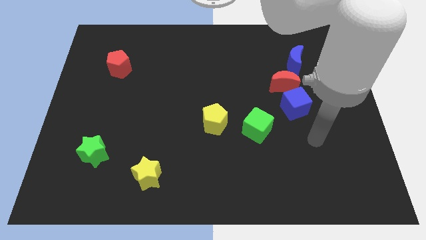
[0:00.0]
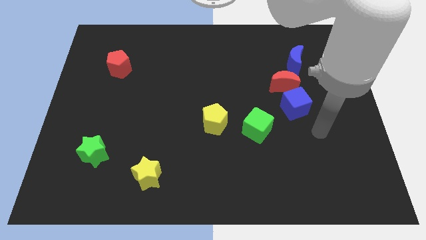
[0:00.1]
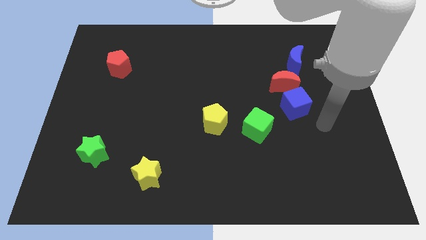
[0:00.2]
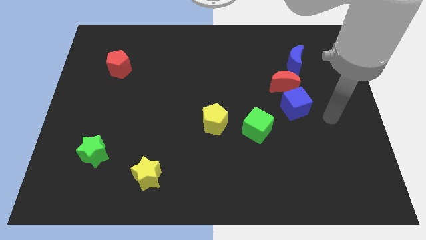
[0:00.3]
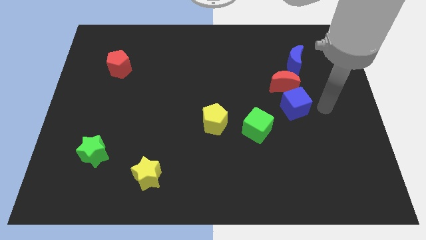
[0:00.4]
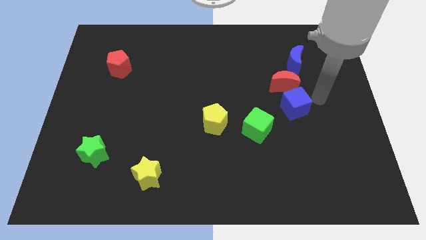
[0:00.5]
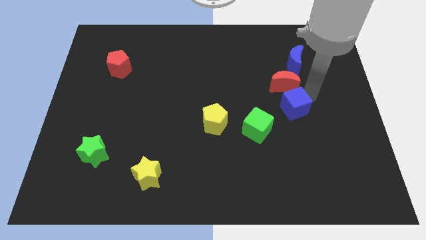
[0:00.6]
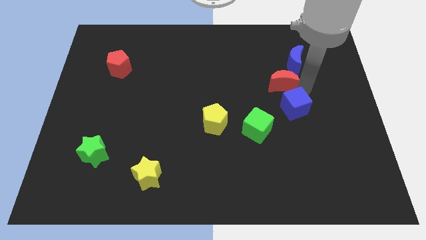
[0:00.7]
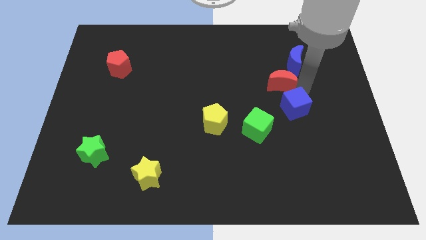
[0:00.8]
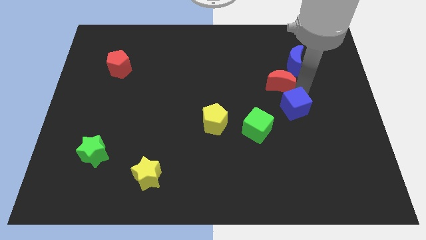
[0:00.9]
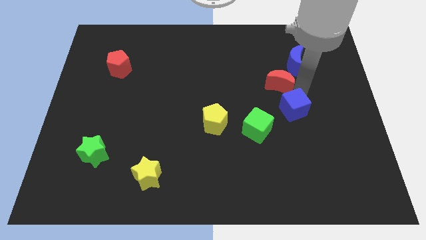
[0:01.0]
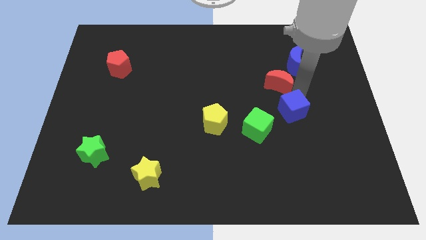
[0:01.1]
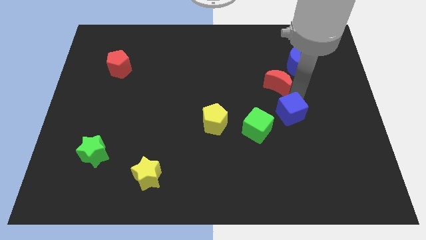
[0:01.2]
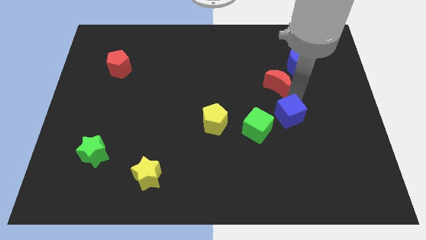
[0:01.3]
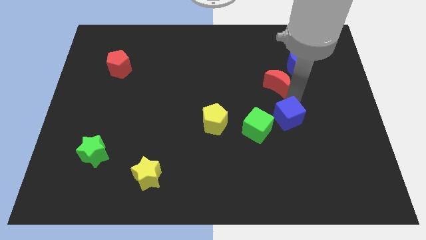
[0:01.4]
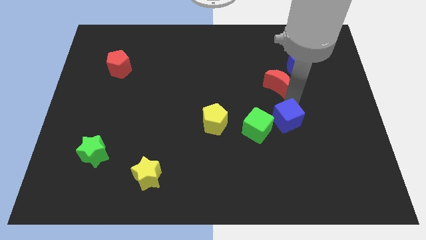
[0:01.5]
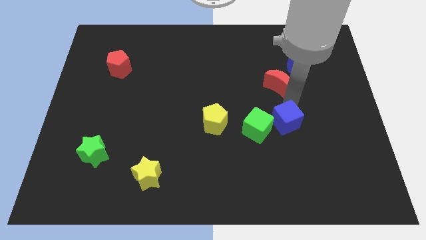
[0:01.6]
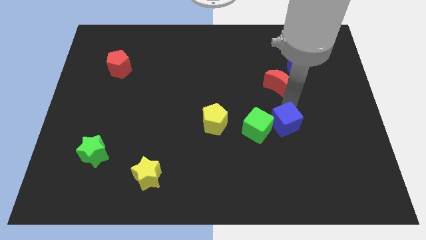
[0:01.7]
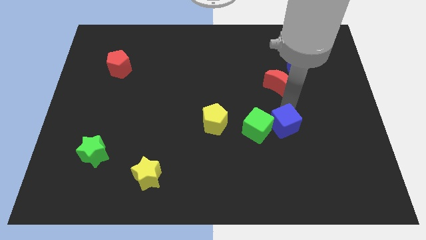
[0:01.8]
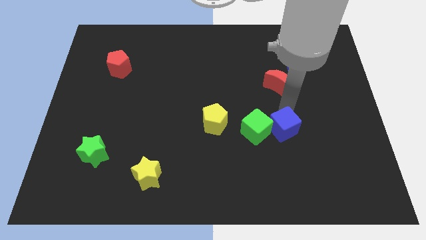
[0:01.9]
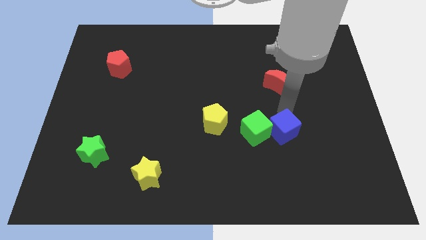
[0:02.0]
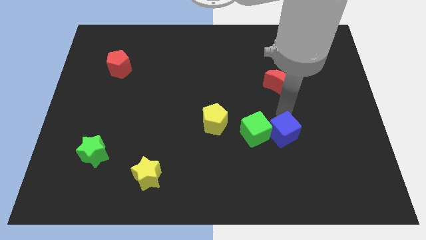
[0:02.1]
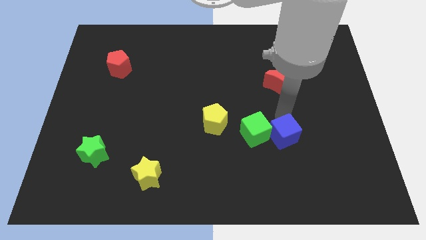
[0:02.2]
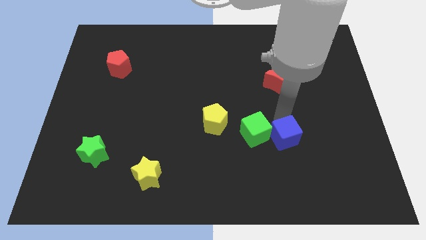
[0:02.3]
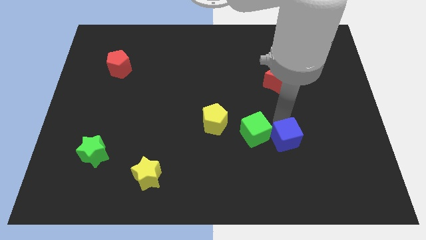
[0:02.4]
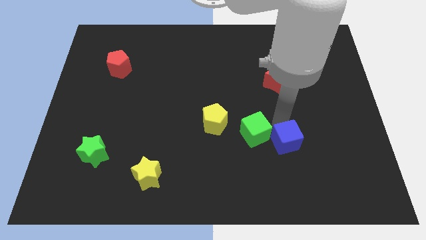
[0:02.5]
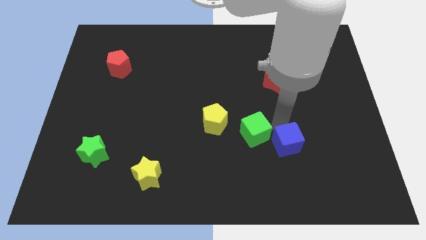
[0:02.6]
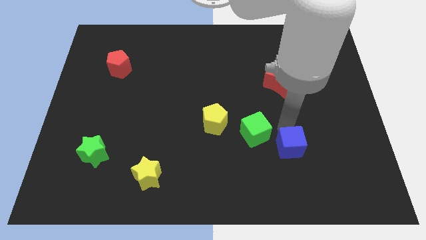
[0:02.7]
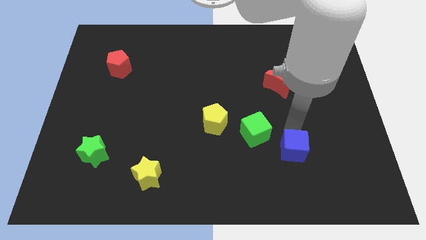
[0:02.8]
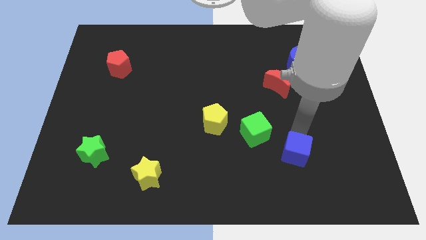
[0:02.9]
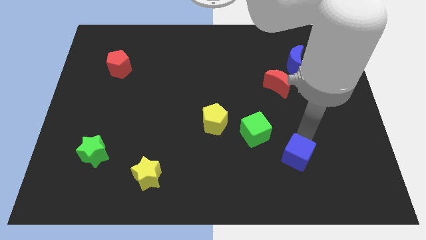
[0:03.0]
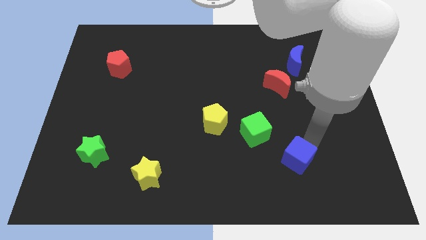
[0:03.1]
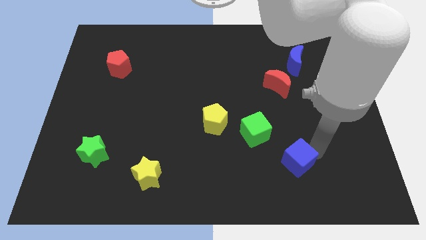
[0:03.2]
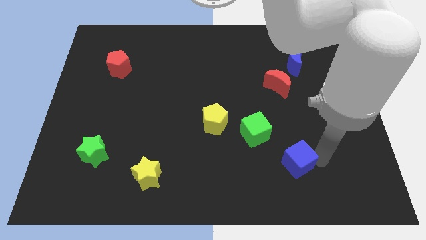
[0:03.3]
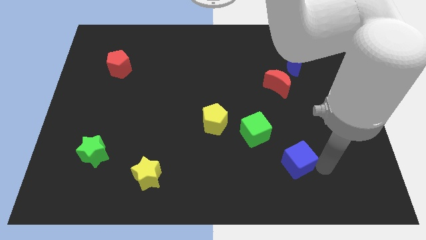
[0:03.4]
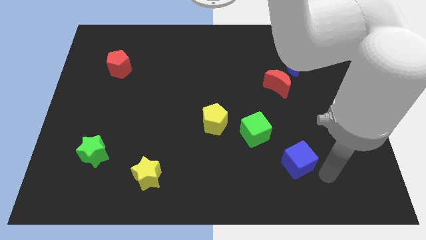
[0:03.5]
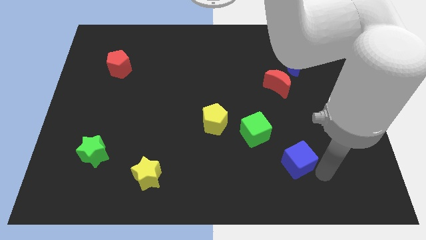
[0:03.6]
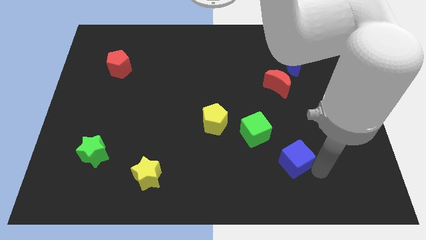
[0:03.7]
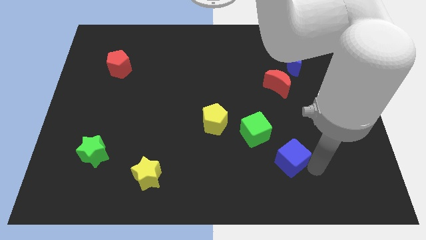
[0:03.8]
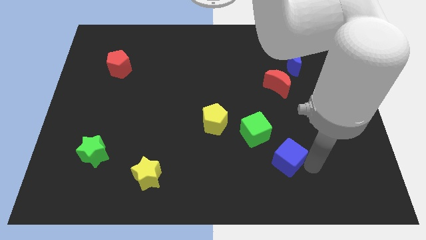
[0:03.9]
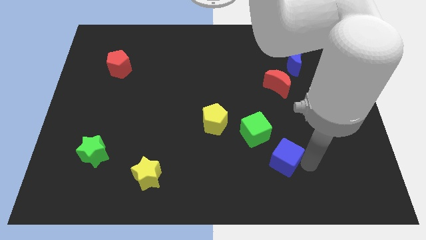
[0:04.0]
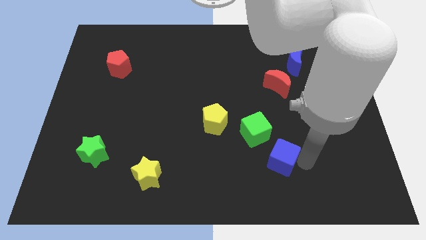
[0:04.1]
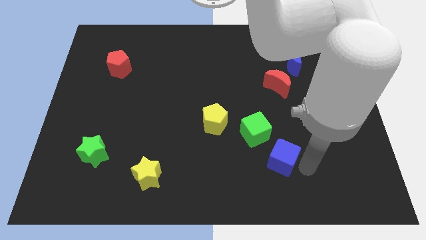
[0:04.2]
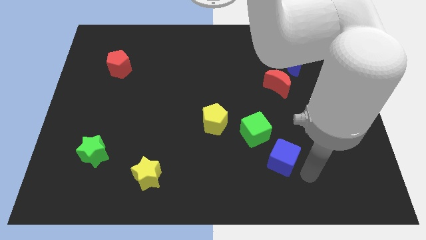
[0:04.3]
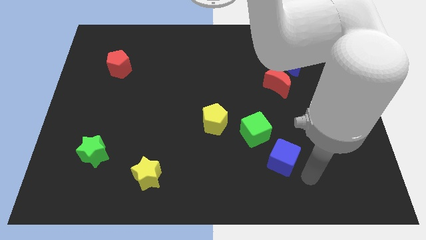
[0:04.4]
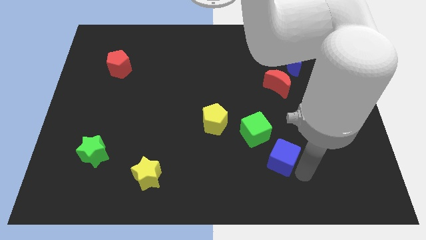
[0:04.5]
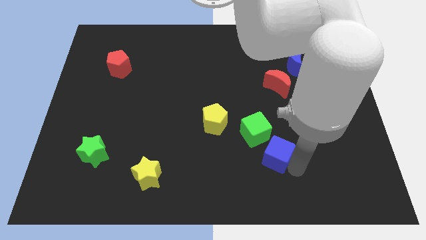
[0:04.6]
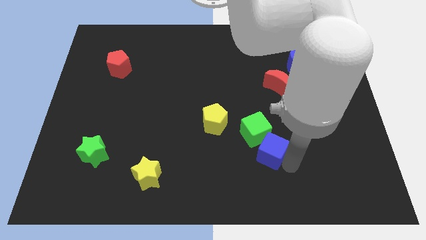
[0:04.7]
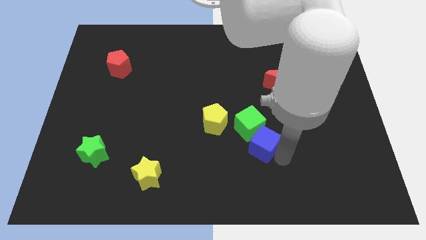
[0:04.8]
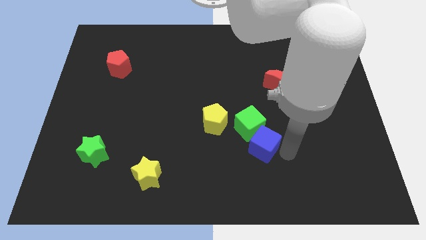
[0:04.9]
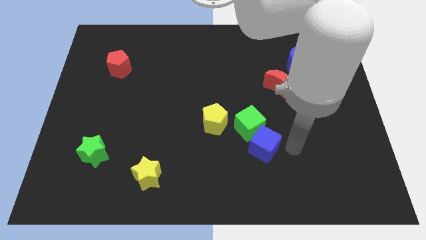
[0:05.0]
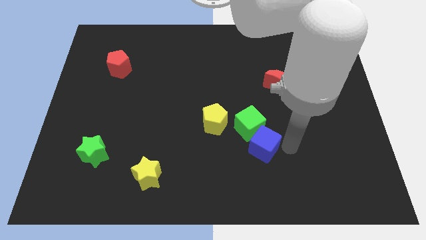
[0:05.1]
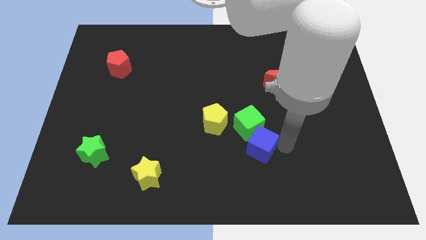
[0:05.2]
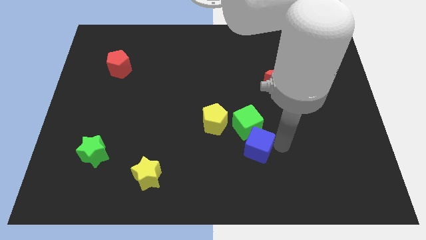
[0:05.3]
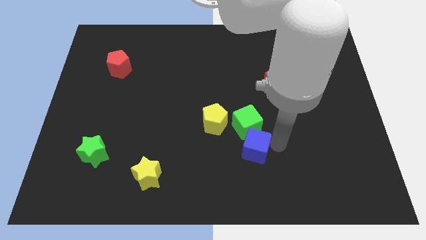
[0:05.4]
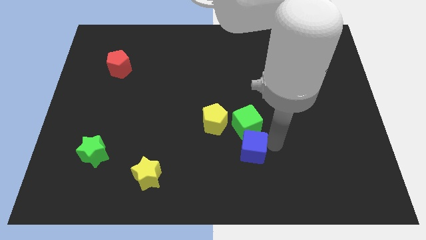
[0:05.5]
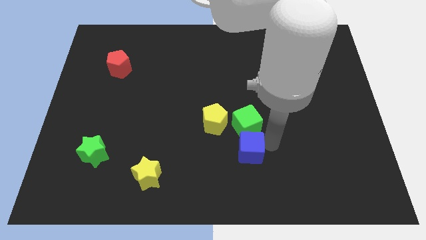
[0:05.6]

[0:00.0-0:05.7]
slide the blue cube to the bottom left side of the green cube

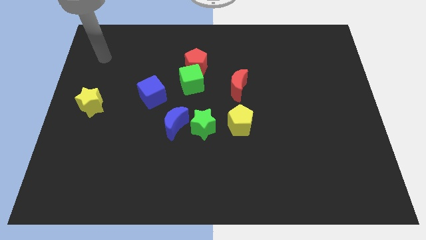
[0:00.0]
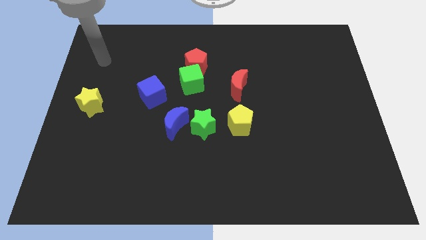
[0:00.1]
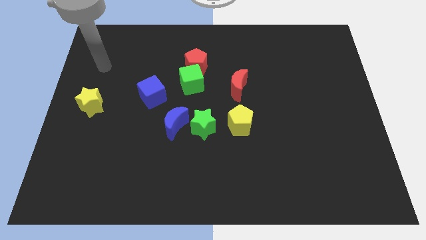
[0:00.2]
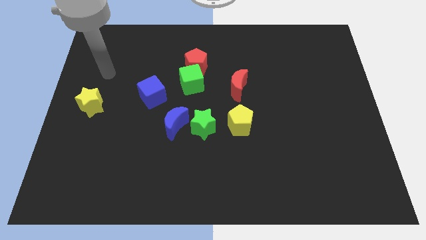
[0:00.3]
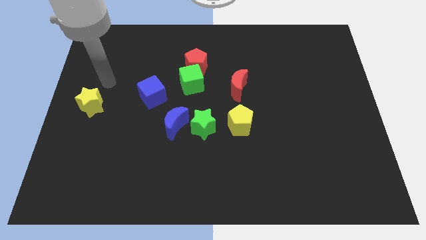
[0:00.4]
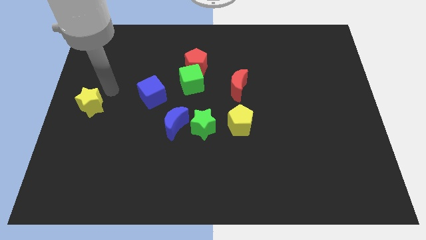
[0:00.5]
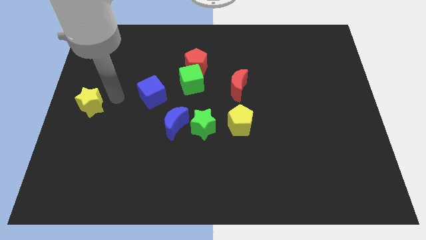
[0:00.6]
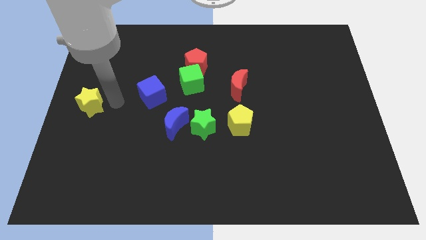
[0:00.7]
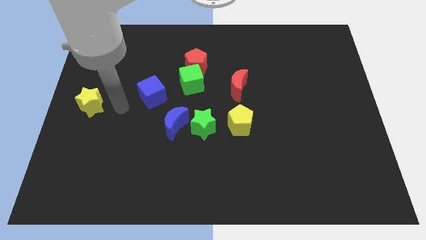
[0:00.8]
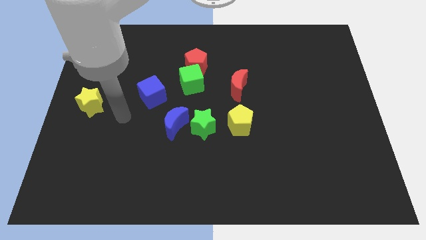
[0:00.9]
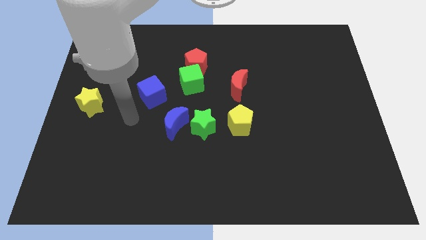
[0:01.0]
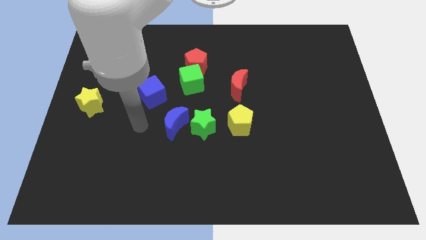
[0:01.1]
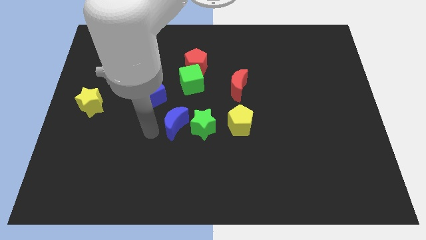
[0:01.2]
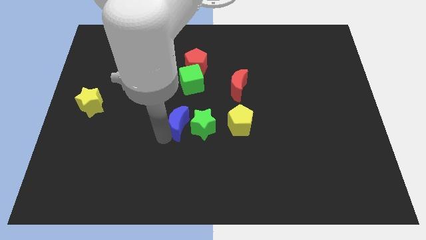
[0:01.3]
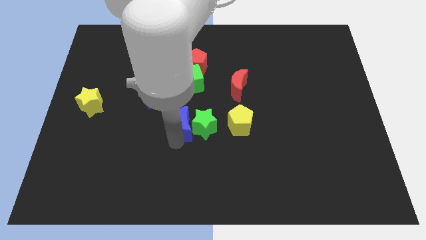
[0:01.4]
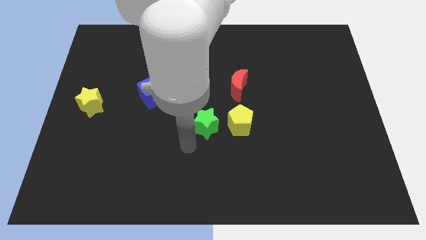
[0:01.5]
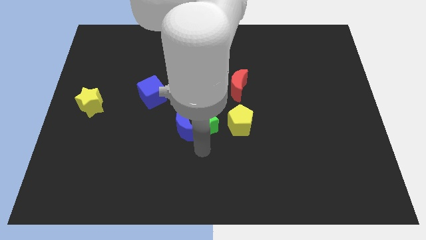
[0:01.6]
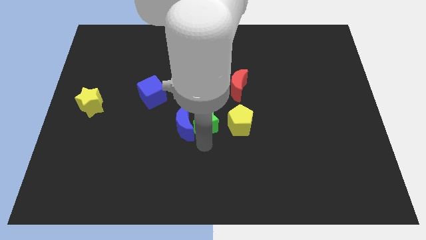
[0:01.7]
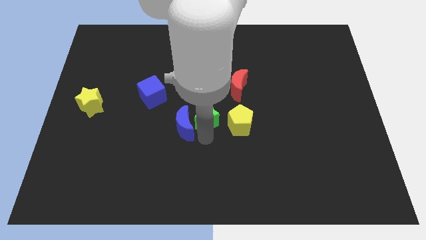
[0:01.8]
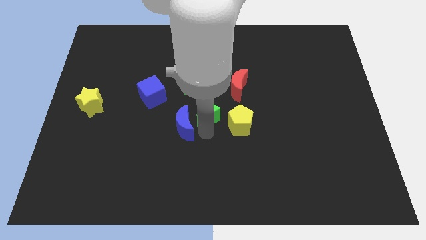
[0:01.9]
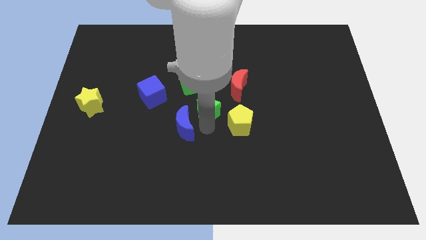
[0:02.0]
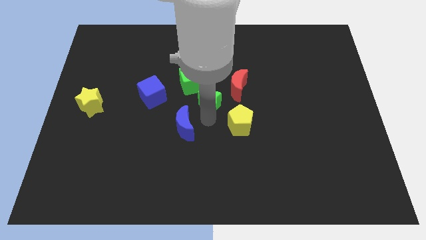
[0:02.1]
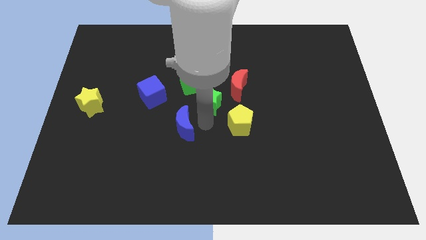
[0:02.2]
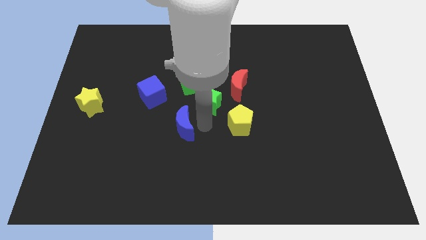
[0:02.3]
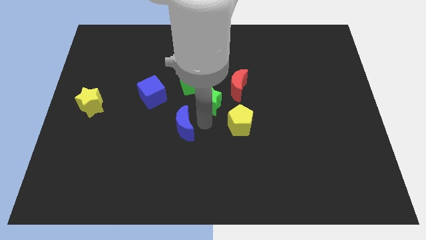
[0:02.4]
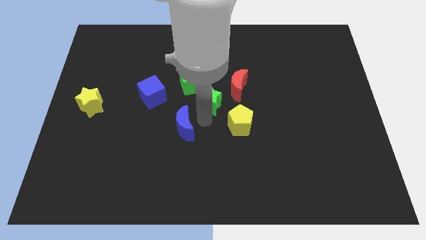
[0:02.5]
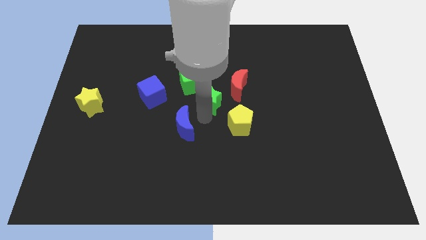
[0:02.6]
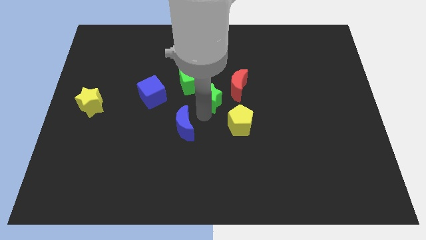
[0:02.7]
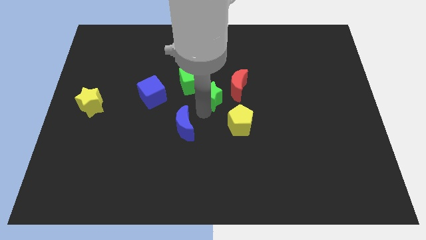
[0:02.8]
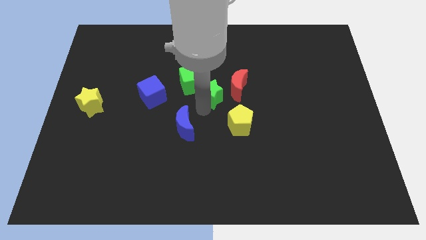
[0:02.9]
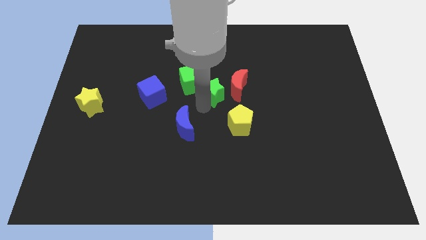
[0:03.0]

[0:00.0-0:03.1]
push the green star to the bottom right side of the red pentagon
